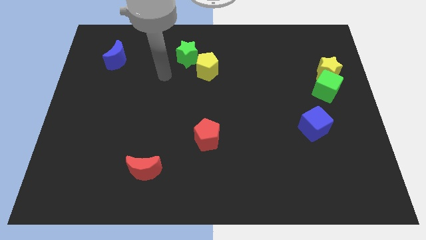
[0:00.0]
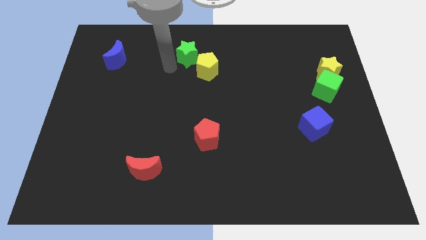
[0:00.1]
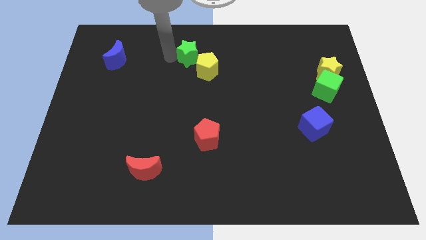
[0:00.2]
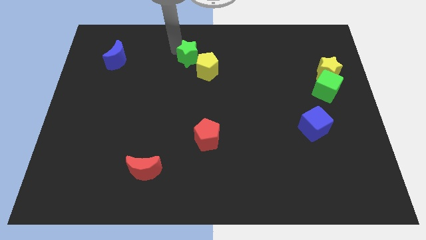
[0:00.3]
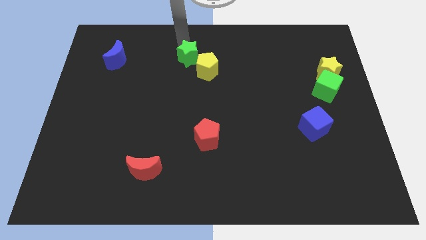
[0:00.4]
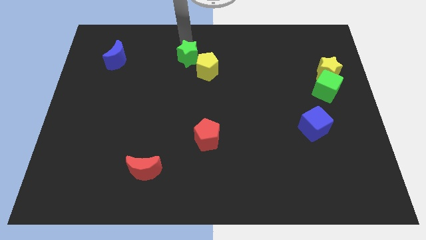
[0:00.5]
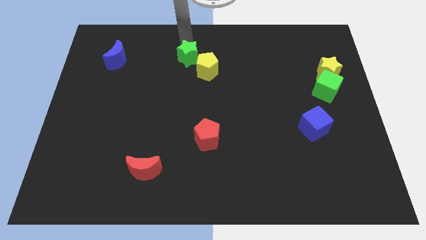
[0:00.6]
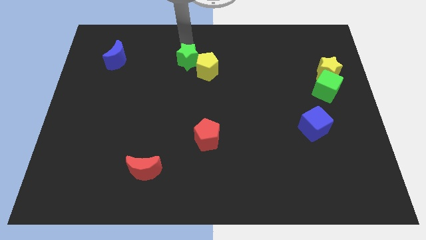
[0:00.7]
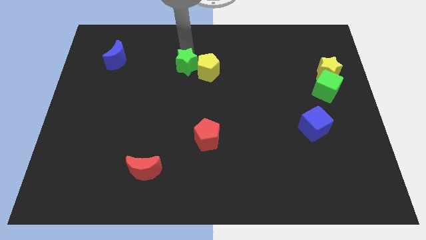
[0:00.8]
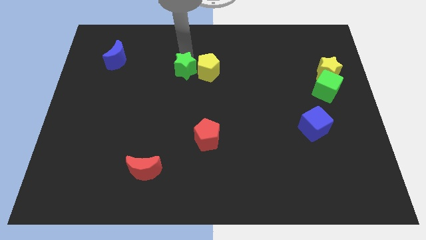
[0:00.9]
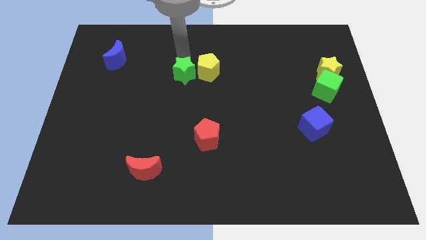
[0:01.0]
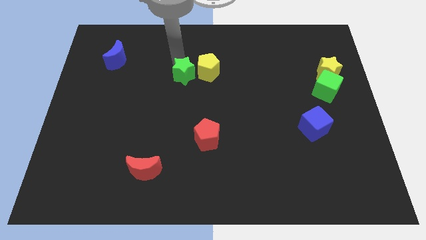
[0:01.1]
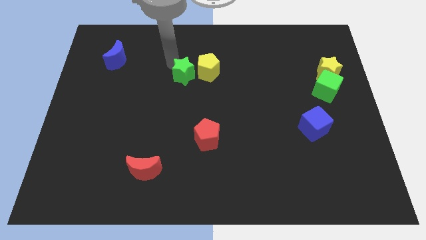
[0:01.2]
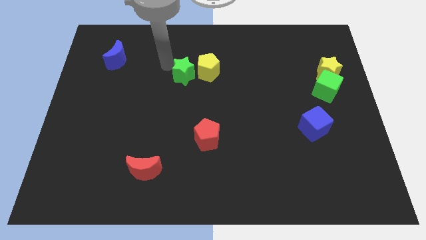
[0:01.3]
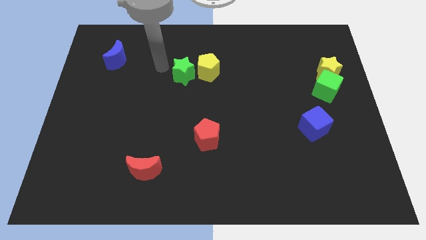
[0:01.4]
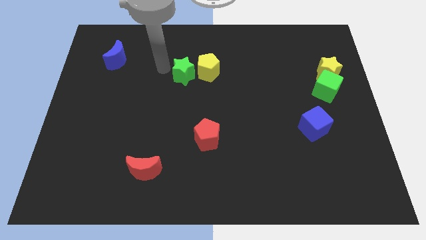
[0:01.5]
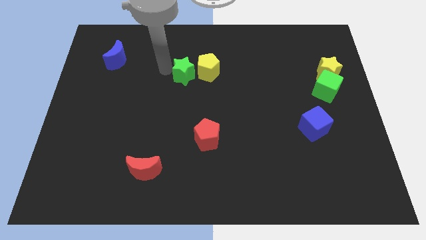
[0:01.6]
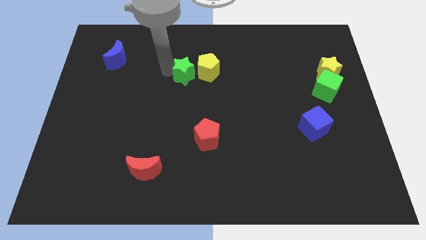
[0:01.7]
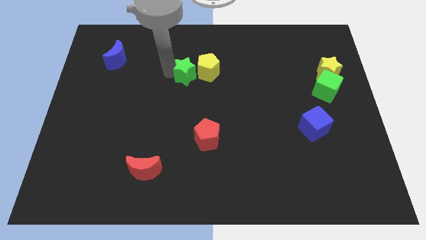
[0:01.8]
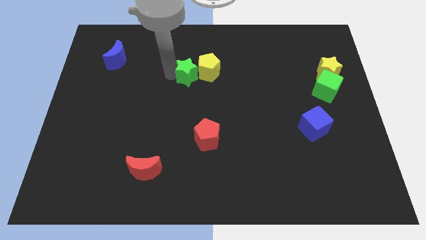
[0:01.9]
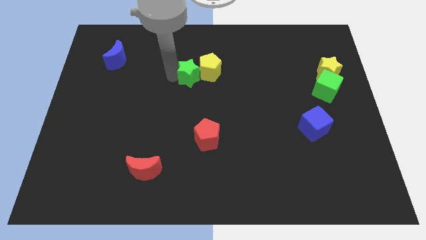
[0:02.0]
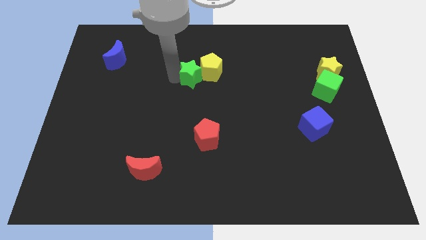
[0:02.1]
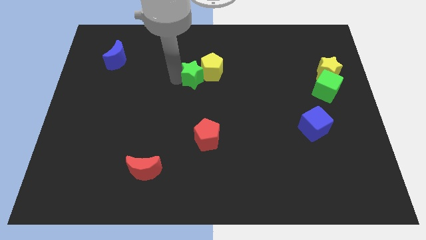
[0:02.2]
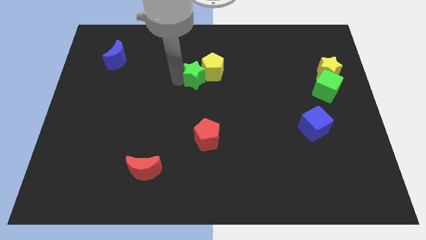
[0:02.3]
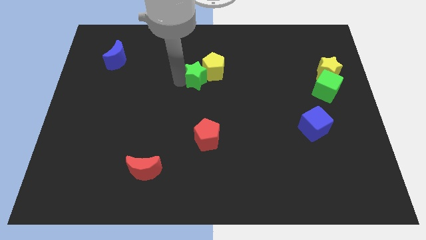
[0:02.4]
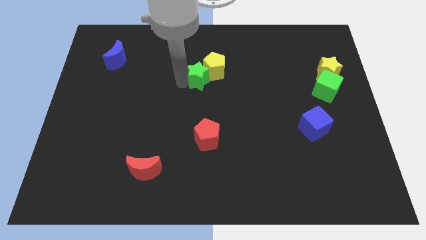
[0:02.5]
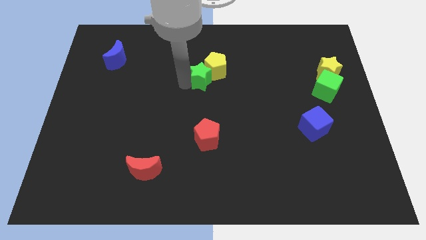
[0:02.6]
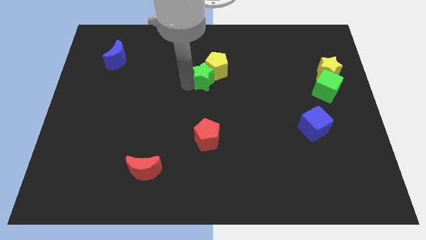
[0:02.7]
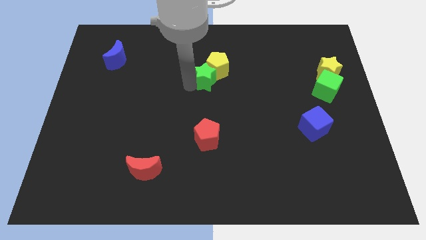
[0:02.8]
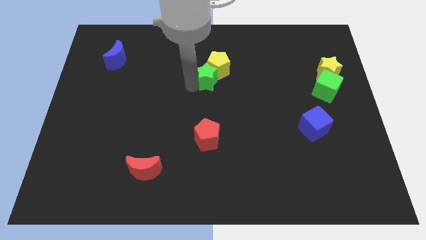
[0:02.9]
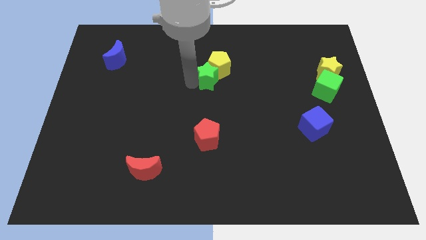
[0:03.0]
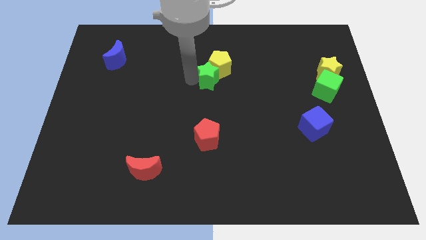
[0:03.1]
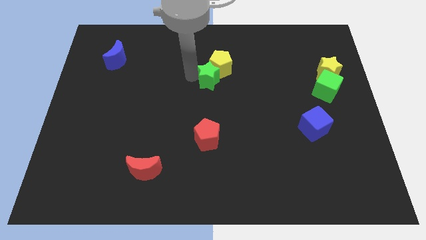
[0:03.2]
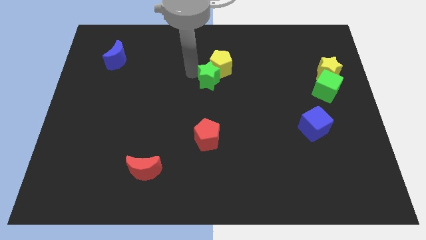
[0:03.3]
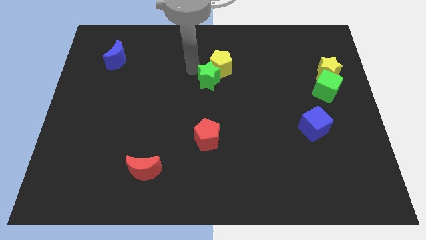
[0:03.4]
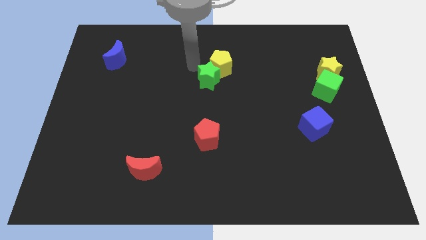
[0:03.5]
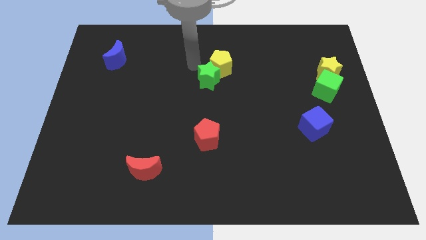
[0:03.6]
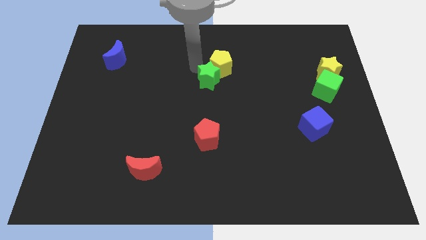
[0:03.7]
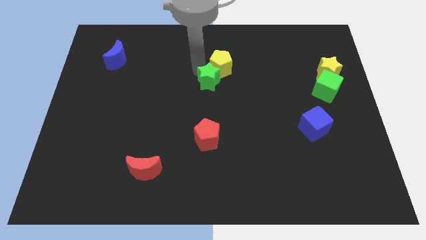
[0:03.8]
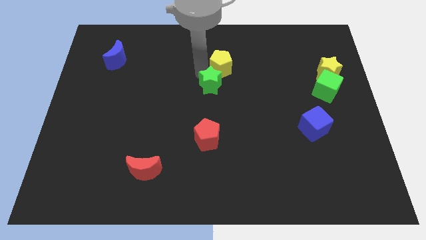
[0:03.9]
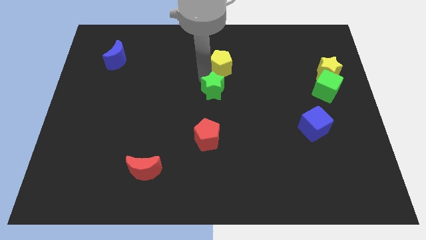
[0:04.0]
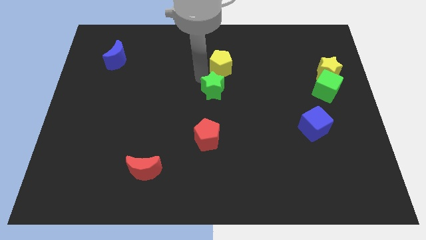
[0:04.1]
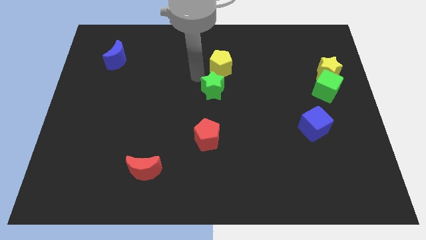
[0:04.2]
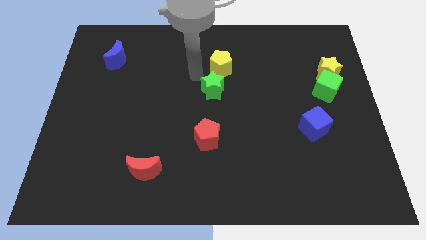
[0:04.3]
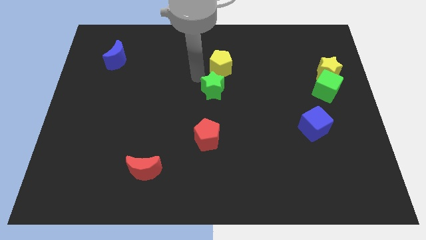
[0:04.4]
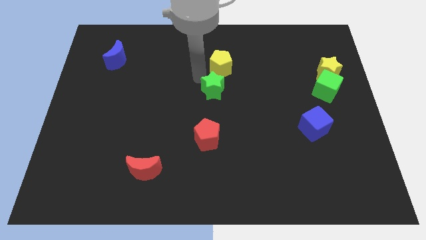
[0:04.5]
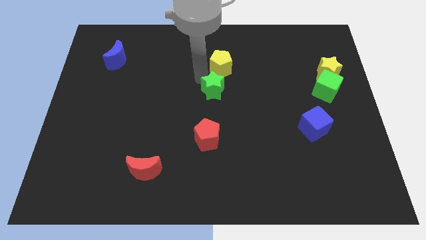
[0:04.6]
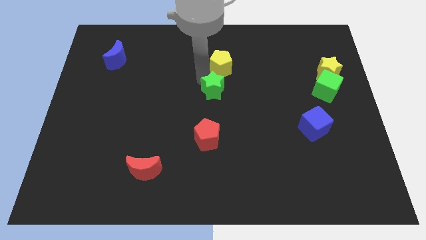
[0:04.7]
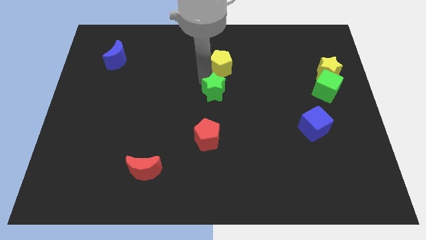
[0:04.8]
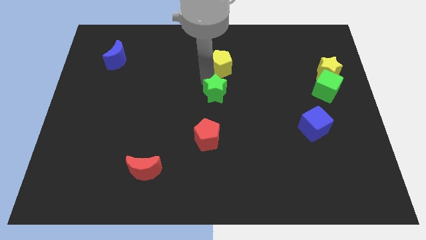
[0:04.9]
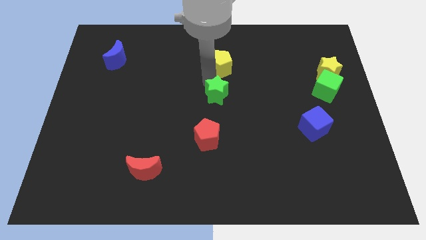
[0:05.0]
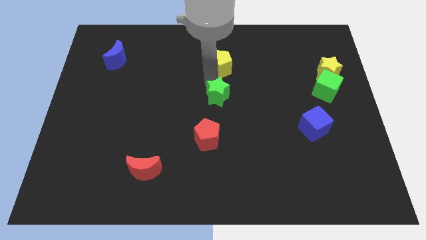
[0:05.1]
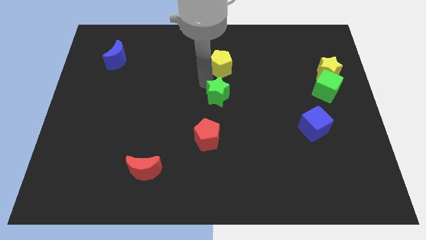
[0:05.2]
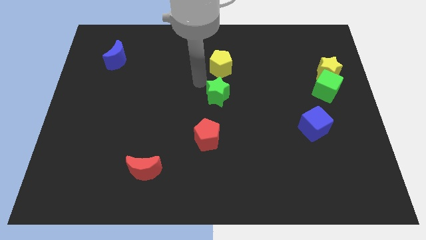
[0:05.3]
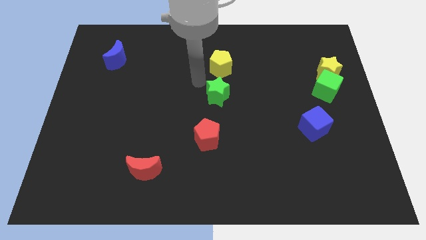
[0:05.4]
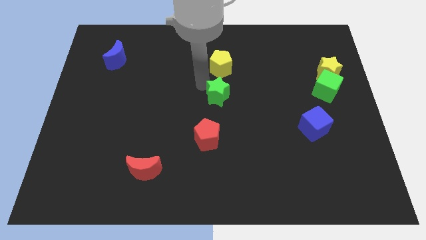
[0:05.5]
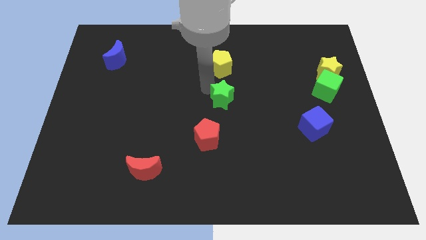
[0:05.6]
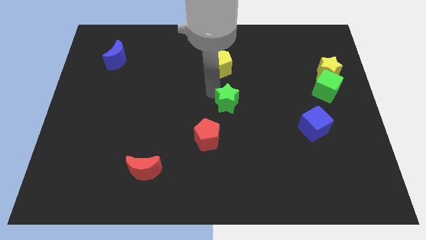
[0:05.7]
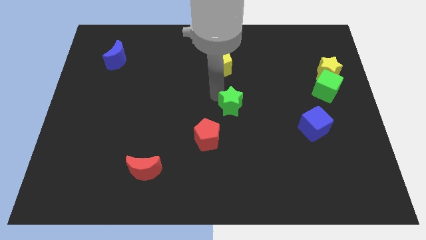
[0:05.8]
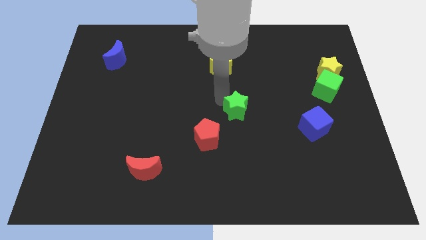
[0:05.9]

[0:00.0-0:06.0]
move the green star downwards and then to the right

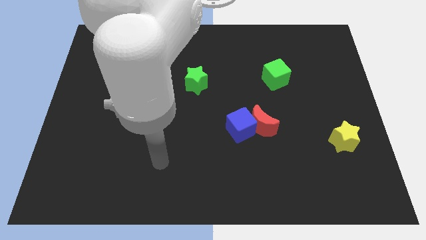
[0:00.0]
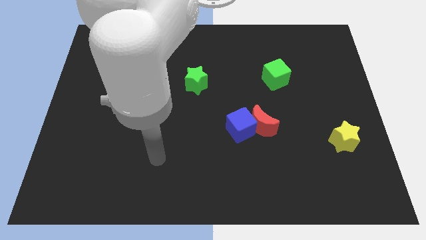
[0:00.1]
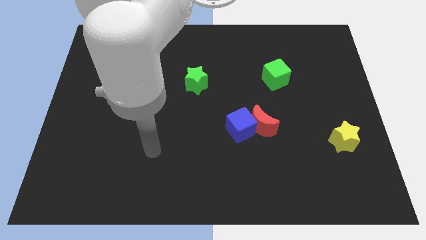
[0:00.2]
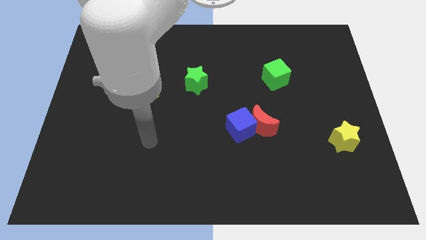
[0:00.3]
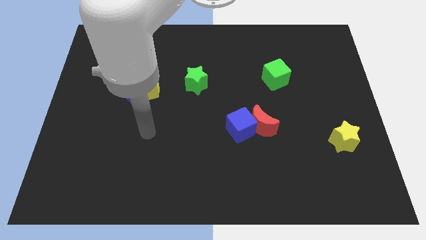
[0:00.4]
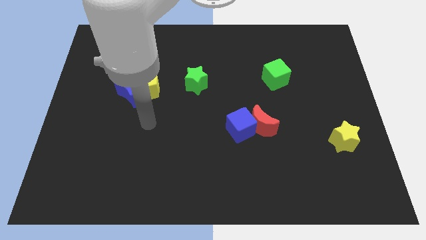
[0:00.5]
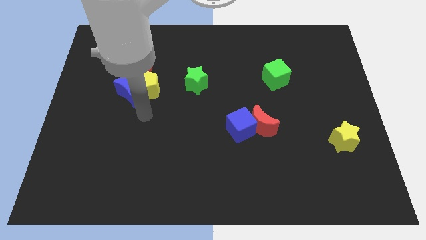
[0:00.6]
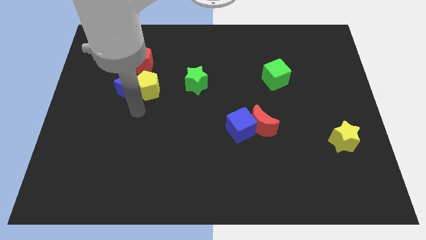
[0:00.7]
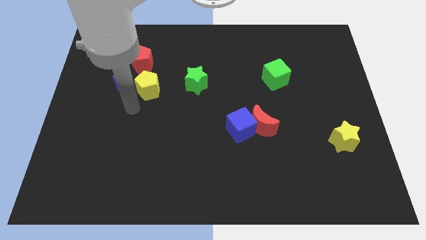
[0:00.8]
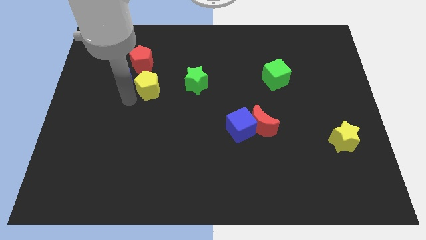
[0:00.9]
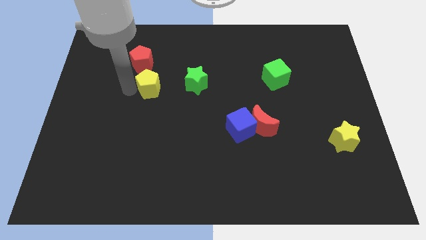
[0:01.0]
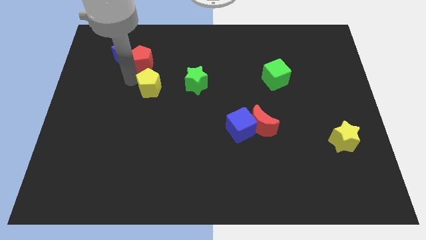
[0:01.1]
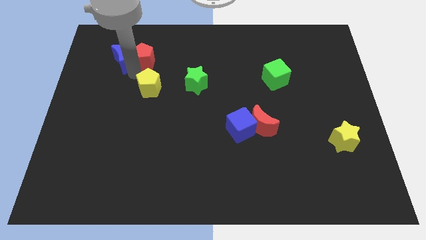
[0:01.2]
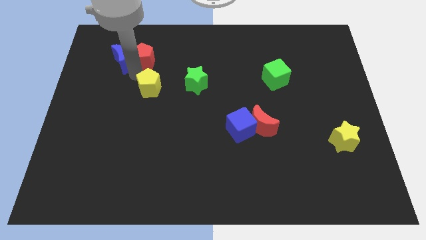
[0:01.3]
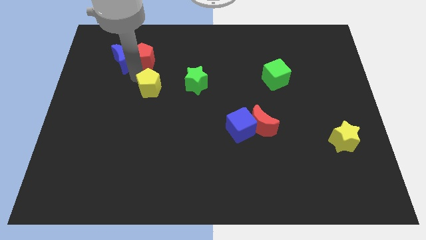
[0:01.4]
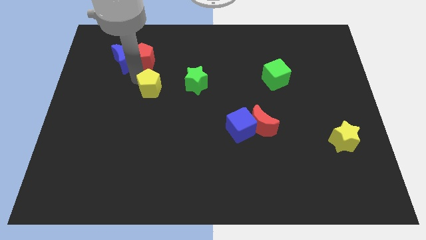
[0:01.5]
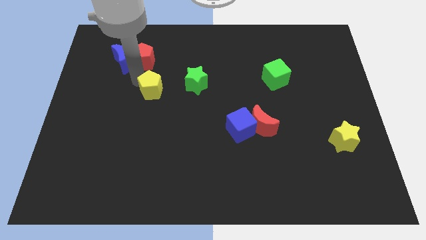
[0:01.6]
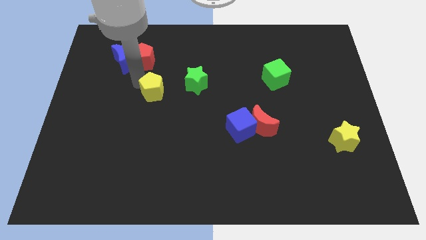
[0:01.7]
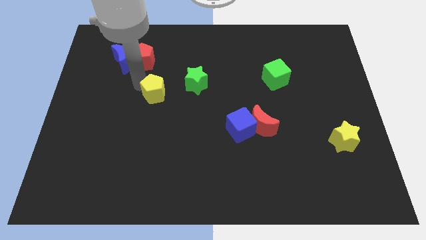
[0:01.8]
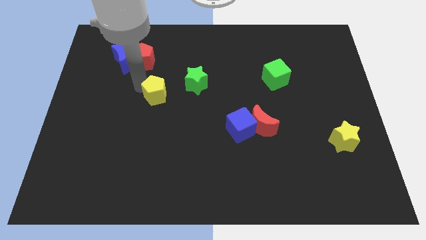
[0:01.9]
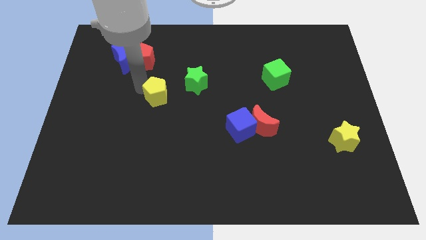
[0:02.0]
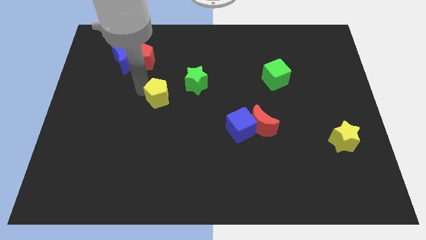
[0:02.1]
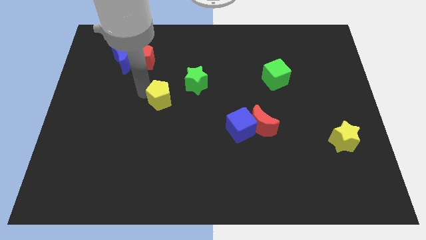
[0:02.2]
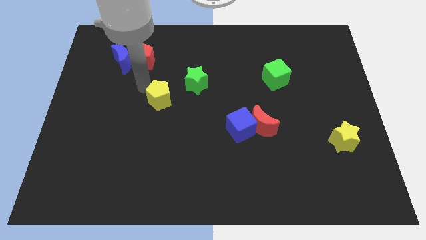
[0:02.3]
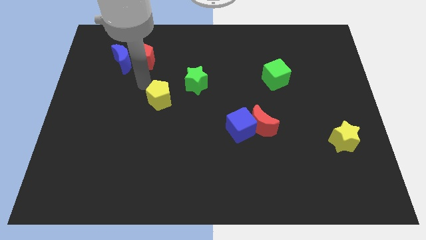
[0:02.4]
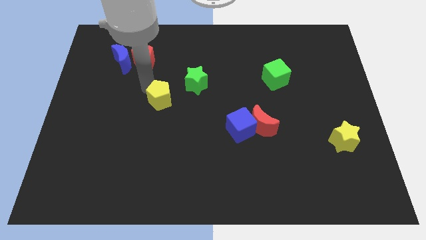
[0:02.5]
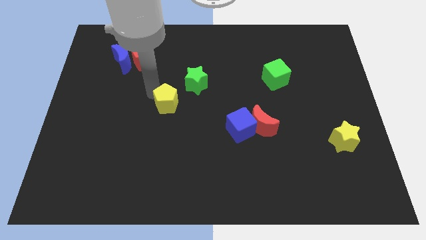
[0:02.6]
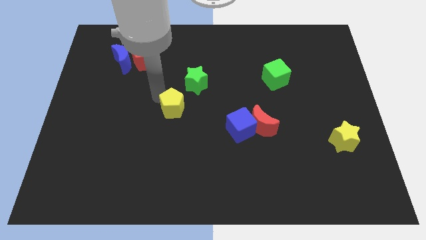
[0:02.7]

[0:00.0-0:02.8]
move the yellow pentagon downwards and right diagonally a little
